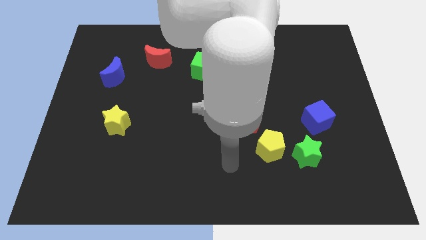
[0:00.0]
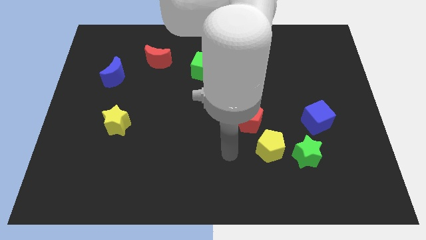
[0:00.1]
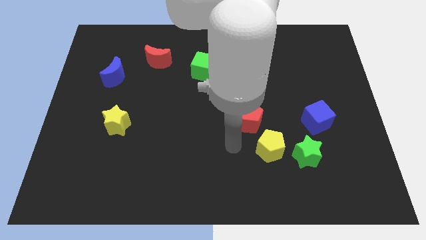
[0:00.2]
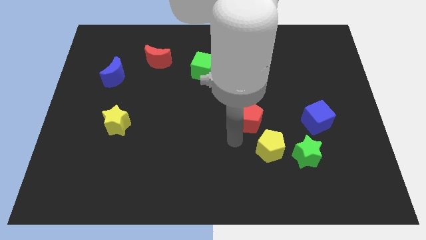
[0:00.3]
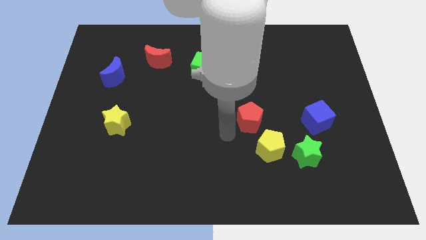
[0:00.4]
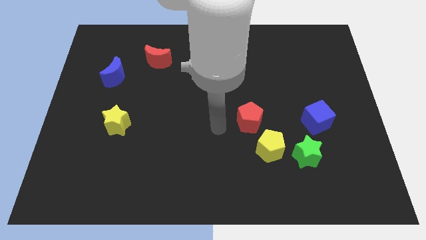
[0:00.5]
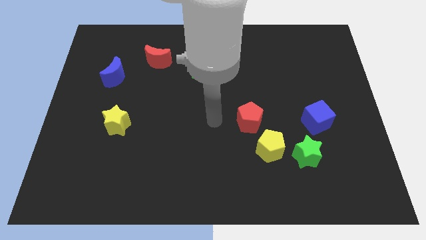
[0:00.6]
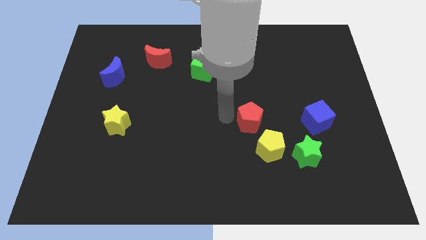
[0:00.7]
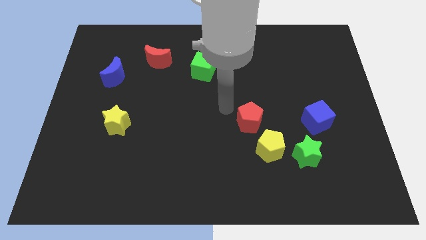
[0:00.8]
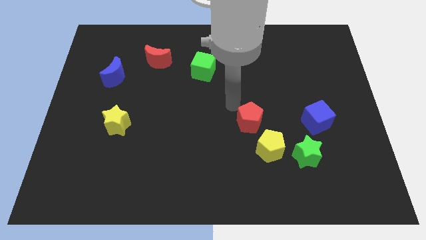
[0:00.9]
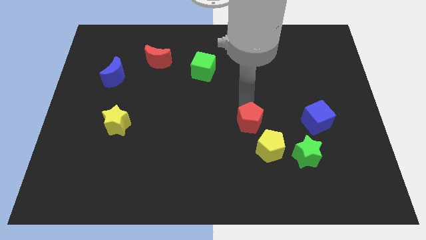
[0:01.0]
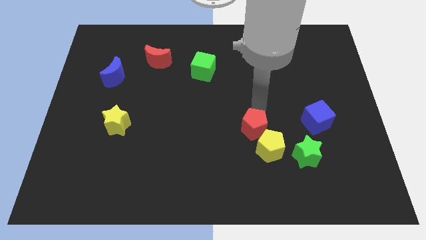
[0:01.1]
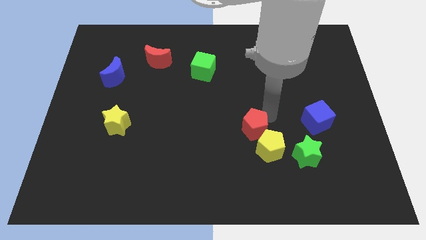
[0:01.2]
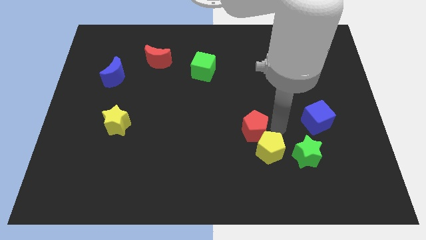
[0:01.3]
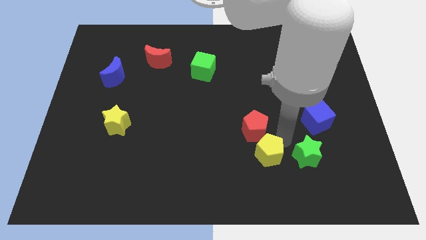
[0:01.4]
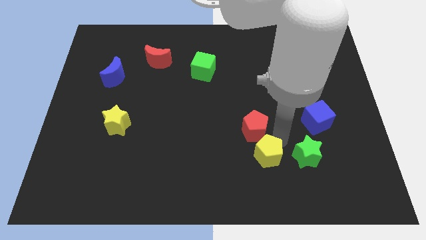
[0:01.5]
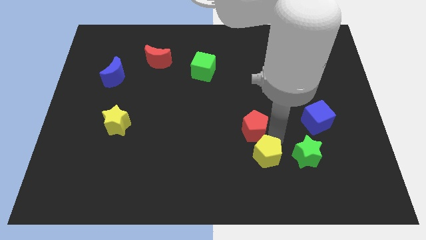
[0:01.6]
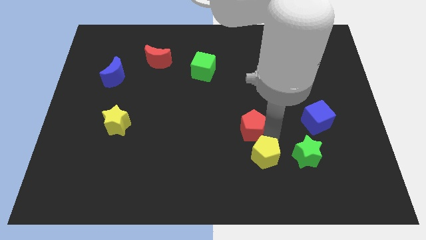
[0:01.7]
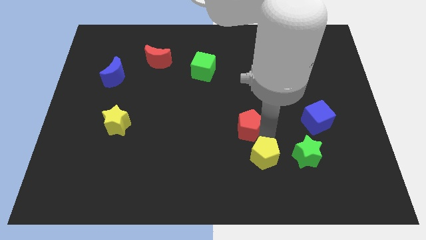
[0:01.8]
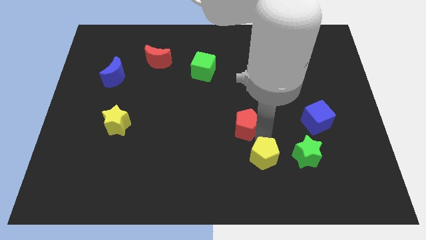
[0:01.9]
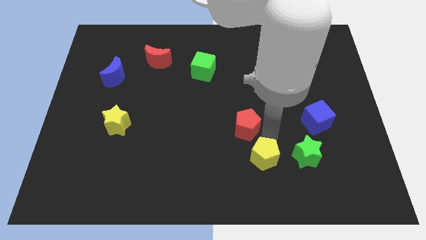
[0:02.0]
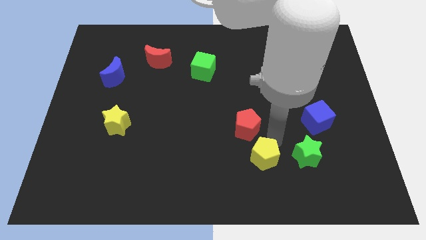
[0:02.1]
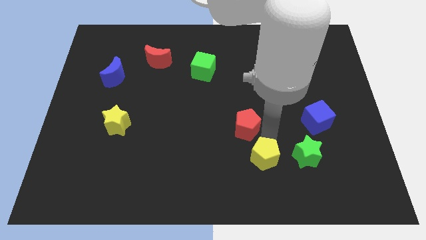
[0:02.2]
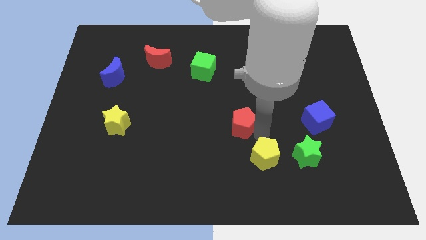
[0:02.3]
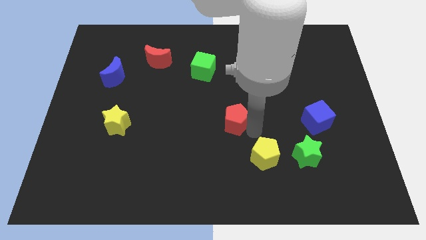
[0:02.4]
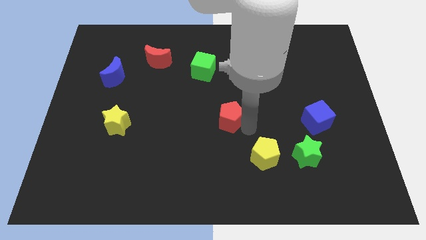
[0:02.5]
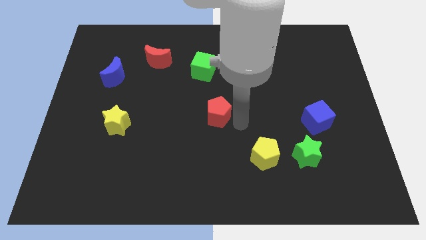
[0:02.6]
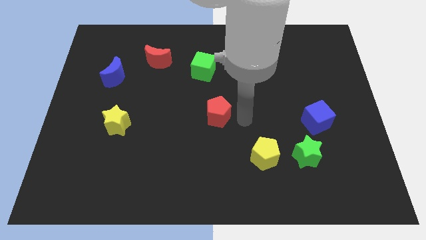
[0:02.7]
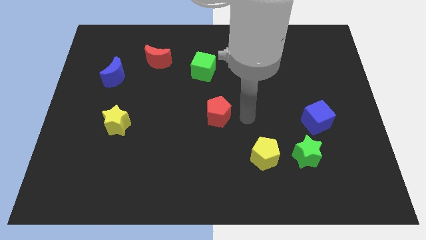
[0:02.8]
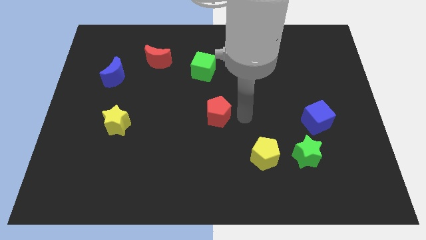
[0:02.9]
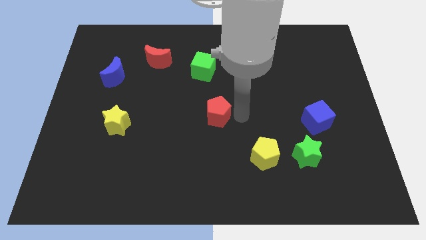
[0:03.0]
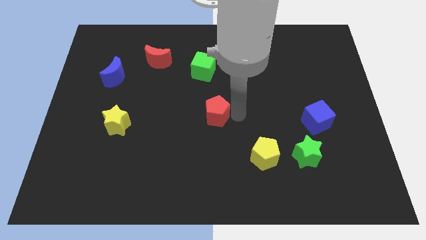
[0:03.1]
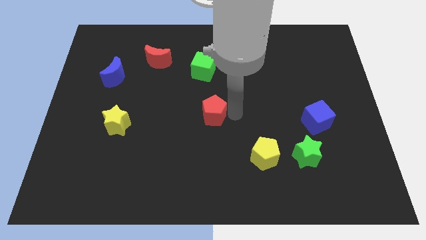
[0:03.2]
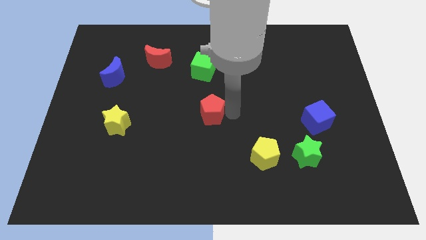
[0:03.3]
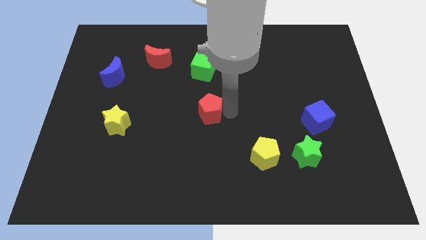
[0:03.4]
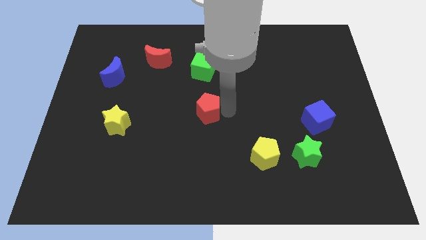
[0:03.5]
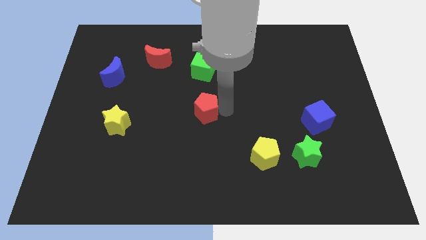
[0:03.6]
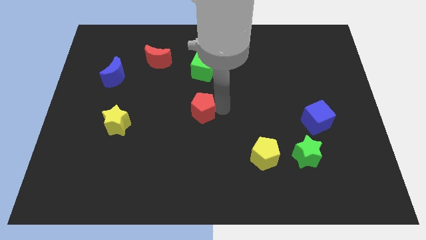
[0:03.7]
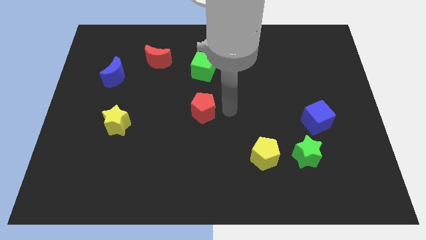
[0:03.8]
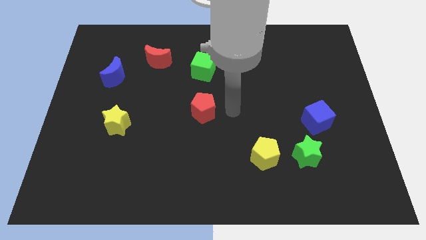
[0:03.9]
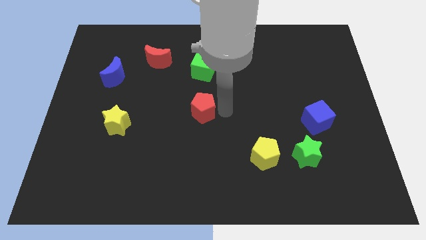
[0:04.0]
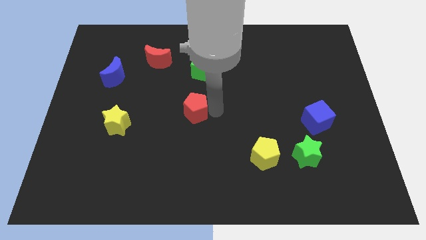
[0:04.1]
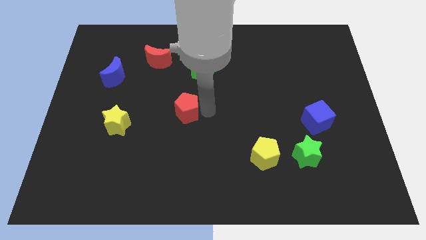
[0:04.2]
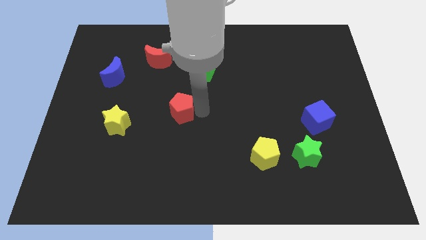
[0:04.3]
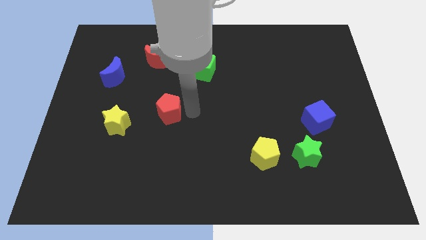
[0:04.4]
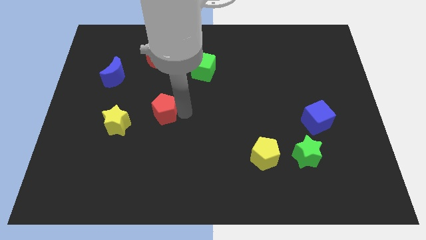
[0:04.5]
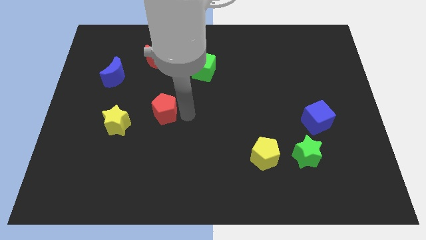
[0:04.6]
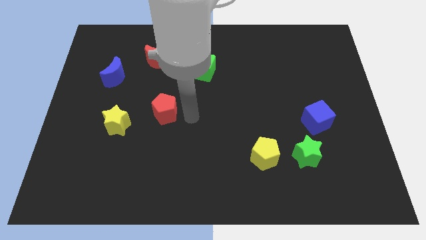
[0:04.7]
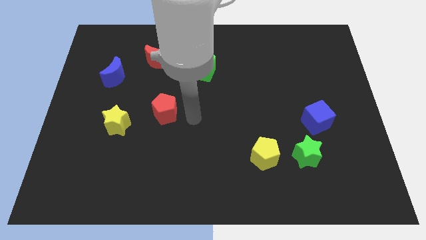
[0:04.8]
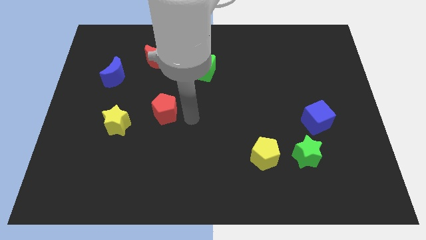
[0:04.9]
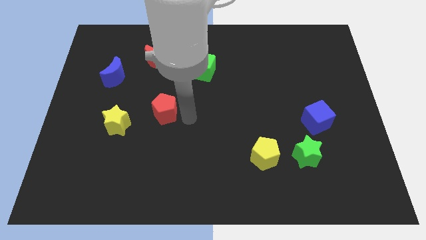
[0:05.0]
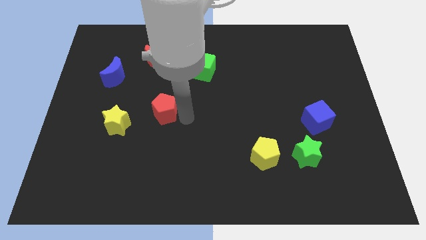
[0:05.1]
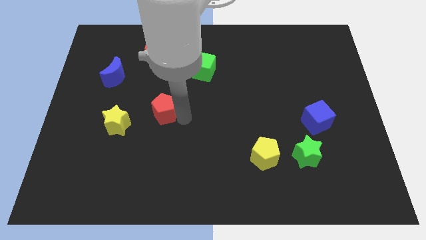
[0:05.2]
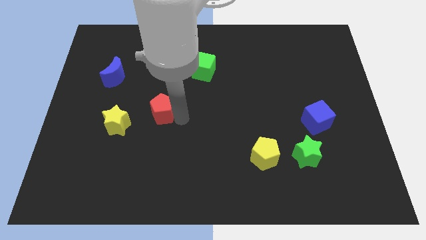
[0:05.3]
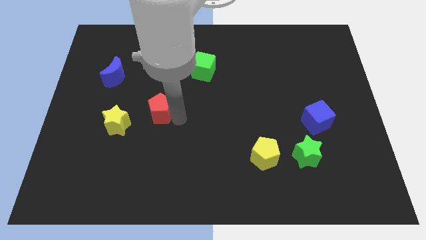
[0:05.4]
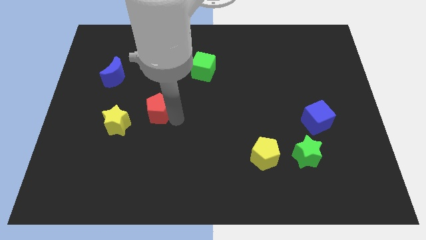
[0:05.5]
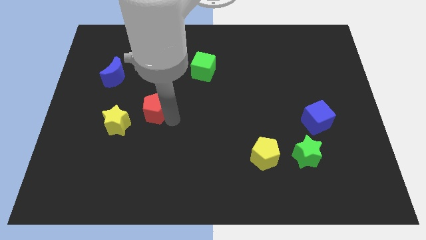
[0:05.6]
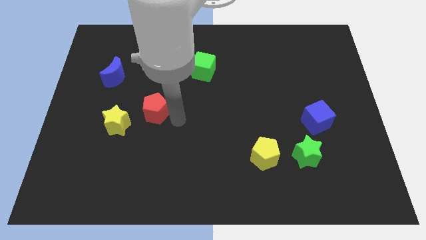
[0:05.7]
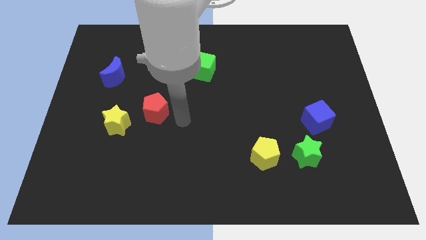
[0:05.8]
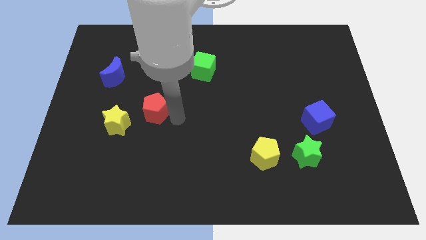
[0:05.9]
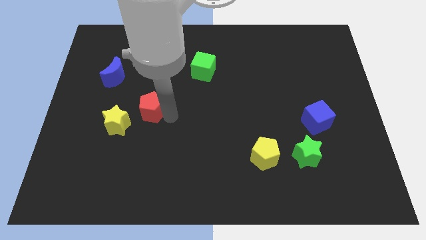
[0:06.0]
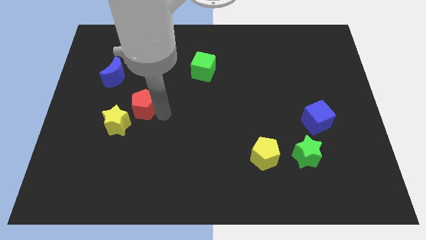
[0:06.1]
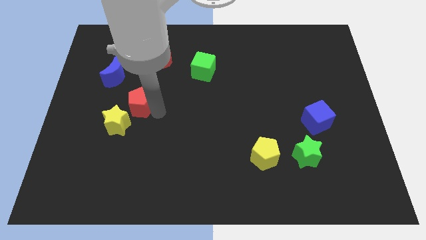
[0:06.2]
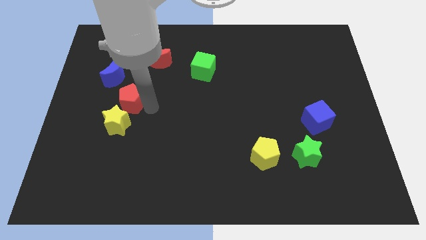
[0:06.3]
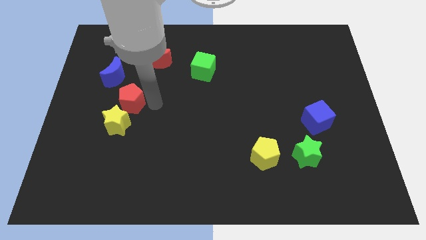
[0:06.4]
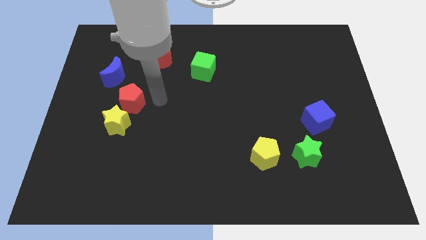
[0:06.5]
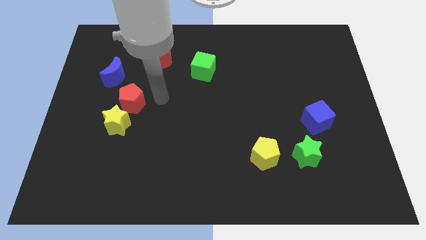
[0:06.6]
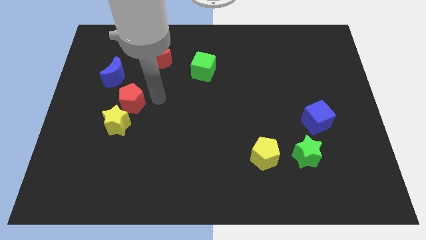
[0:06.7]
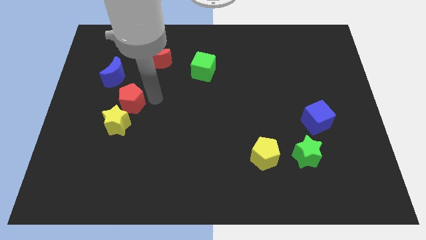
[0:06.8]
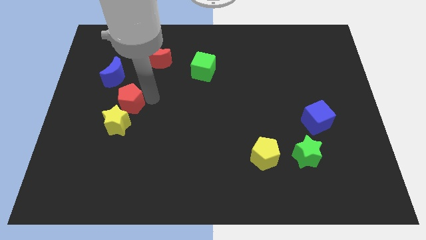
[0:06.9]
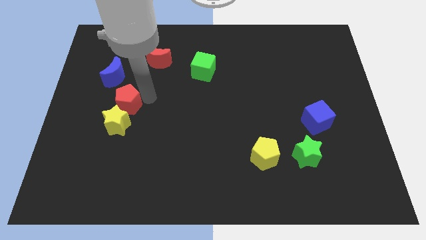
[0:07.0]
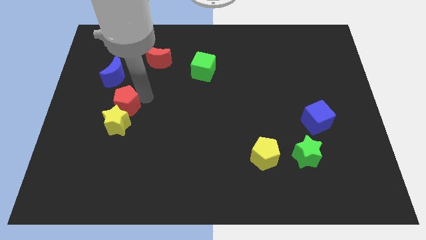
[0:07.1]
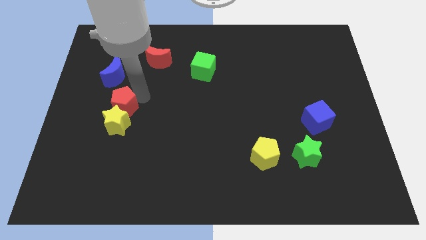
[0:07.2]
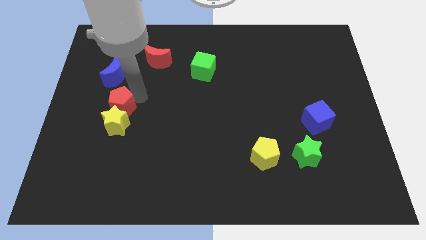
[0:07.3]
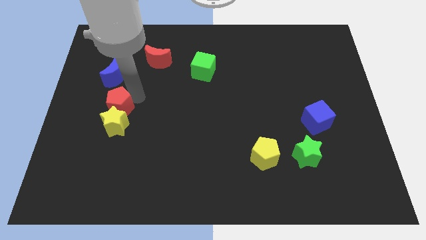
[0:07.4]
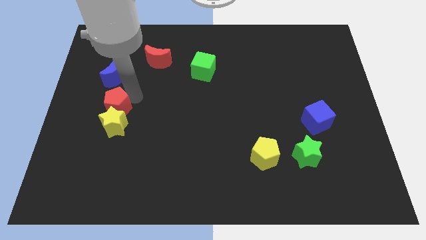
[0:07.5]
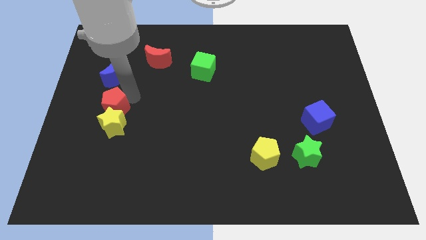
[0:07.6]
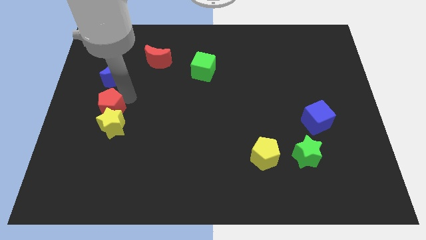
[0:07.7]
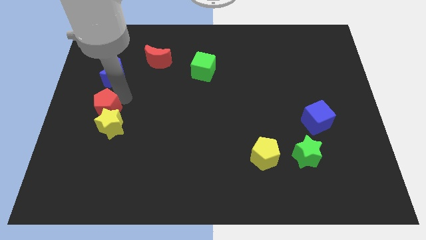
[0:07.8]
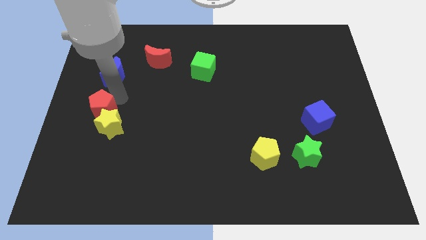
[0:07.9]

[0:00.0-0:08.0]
put the red pentagon to the center left
